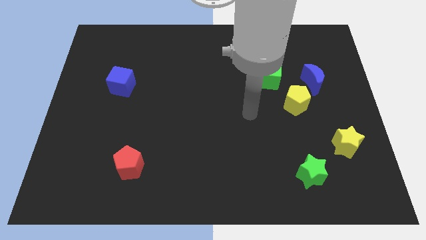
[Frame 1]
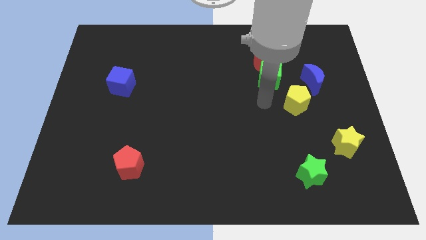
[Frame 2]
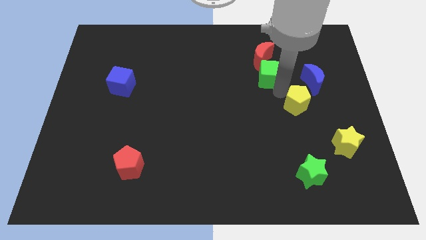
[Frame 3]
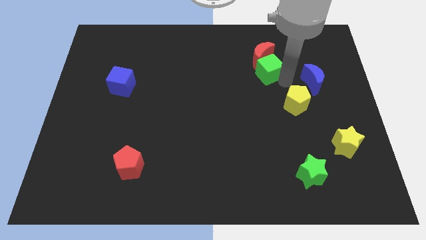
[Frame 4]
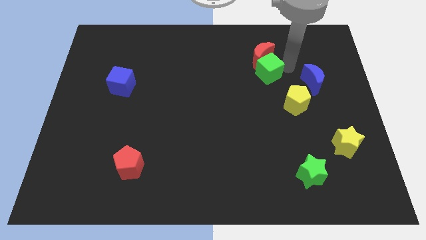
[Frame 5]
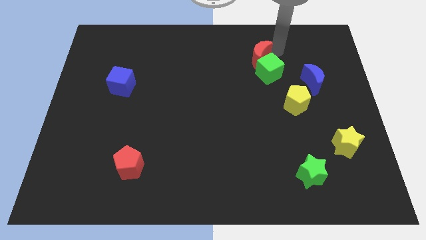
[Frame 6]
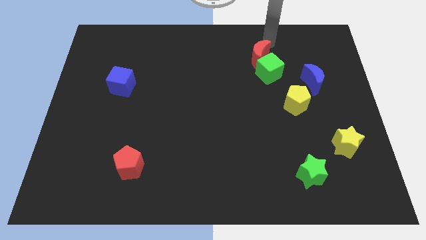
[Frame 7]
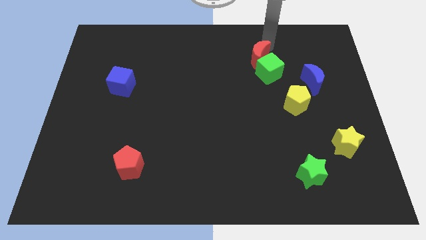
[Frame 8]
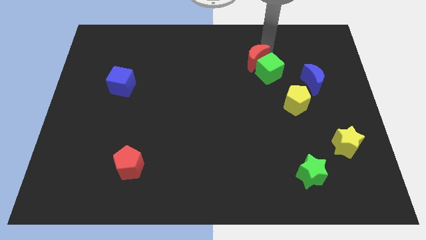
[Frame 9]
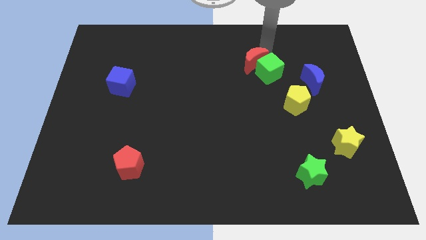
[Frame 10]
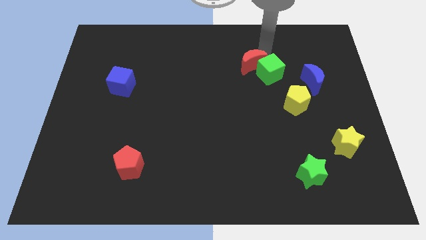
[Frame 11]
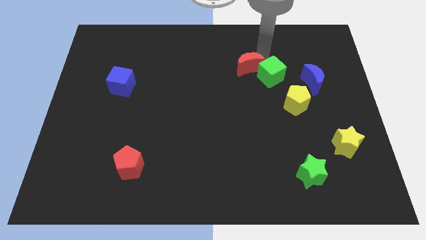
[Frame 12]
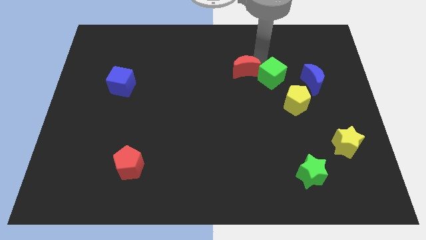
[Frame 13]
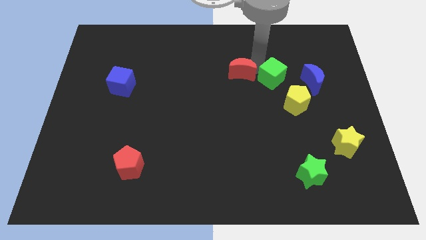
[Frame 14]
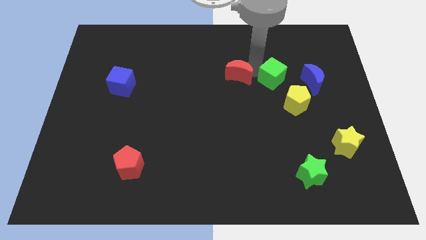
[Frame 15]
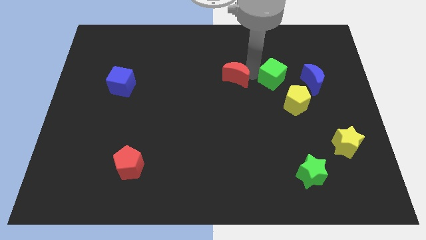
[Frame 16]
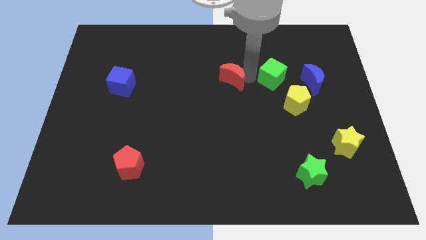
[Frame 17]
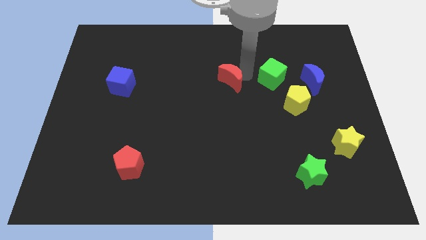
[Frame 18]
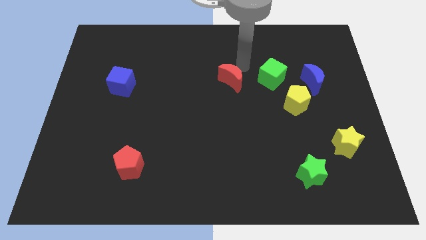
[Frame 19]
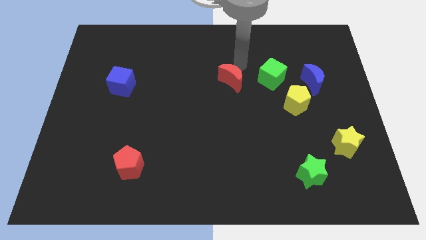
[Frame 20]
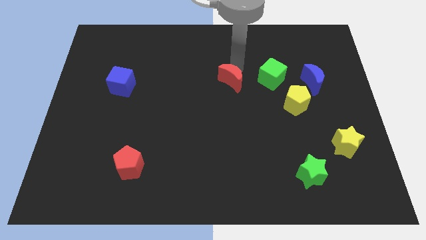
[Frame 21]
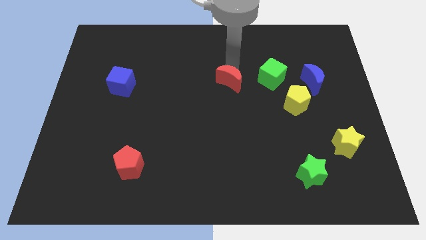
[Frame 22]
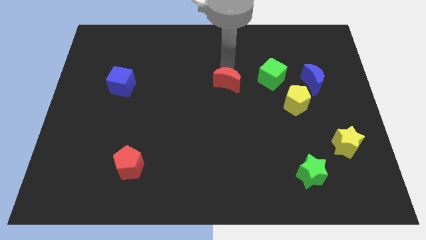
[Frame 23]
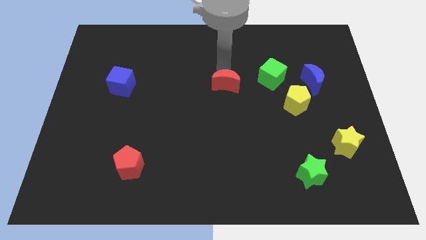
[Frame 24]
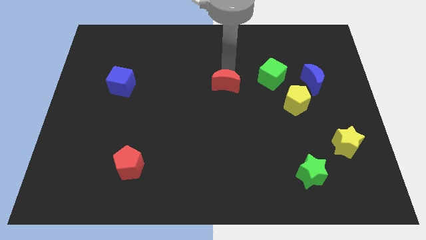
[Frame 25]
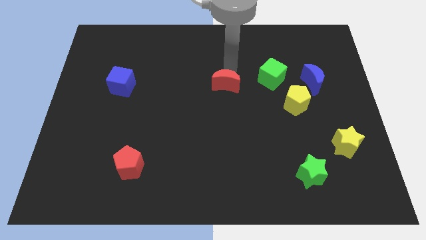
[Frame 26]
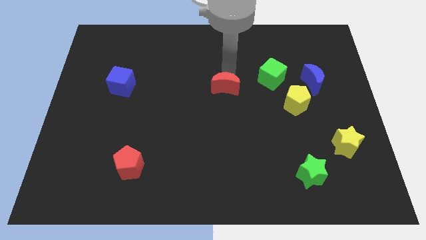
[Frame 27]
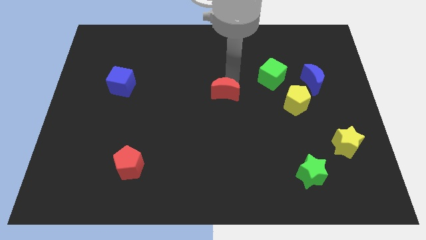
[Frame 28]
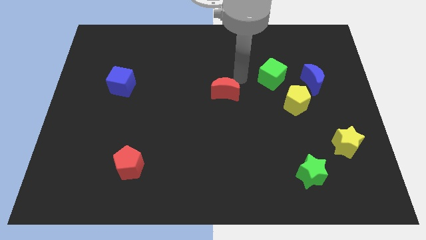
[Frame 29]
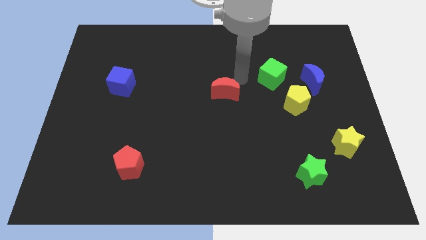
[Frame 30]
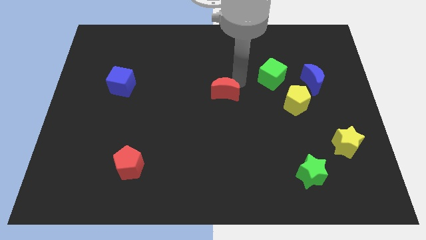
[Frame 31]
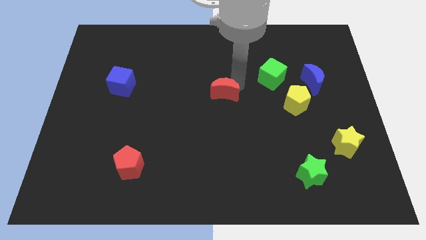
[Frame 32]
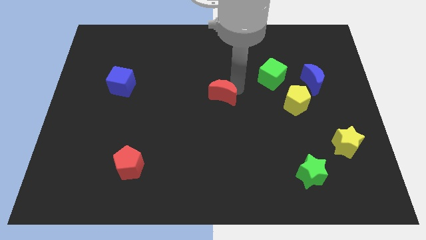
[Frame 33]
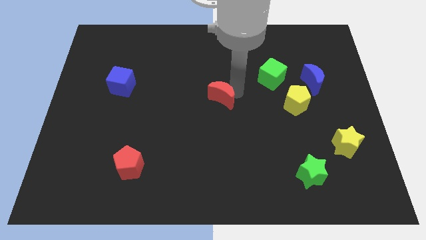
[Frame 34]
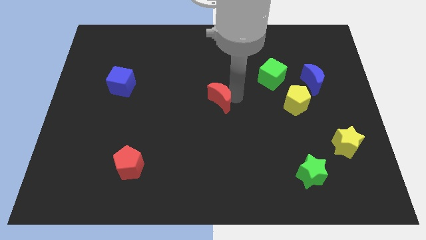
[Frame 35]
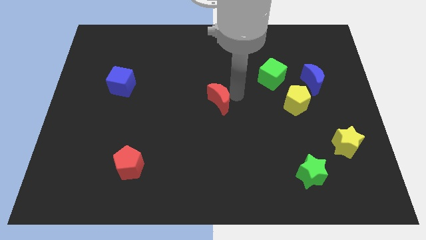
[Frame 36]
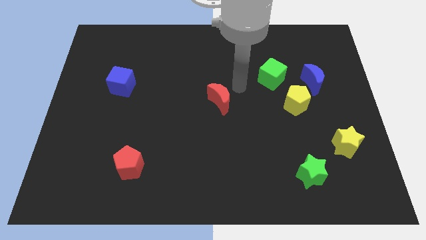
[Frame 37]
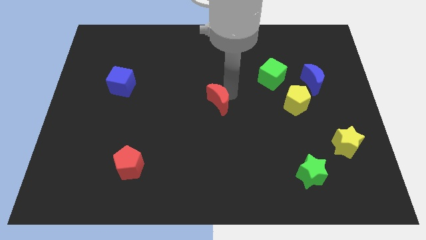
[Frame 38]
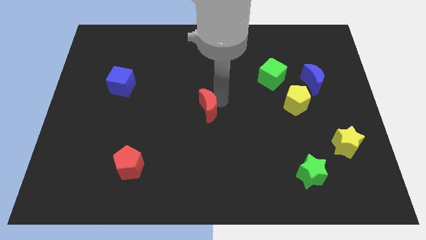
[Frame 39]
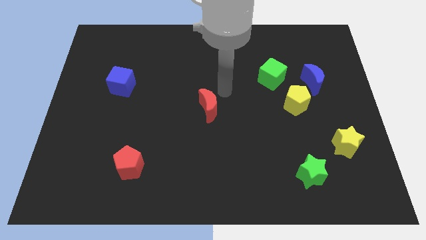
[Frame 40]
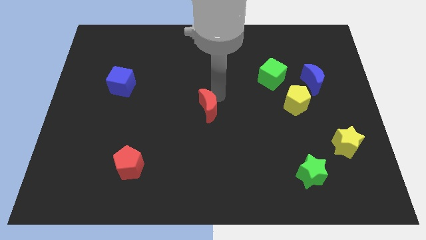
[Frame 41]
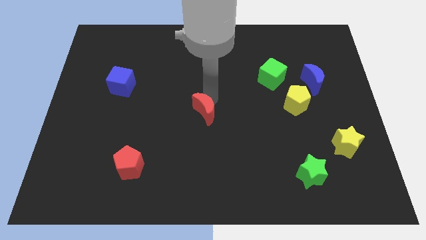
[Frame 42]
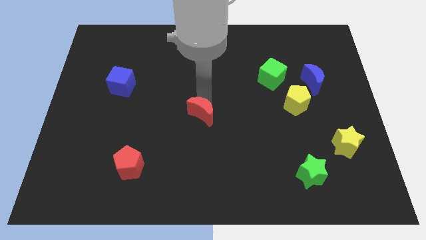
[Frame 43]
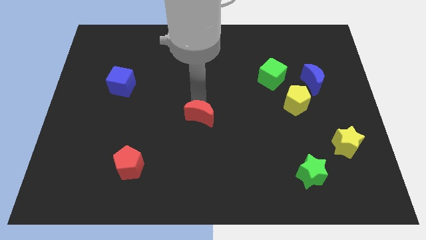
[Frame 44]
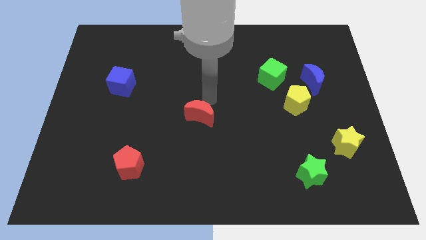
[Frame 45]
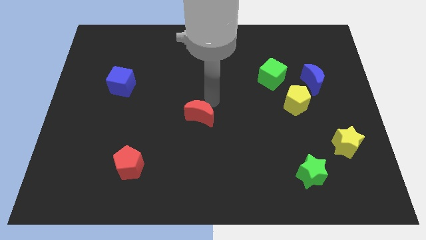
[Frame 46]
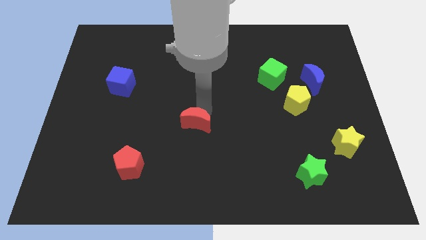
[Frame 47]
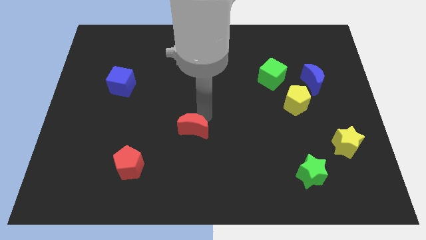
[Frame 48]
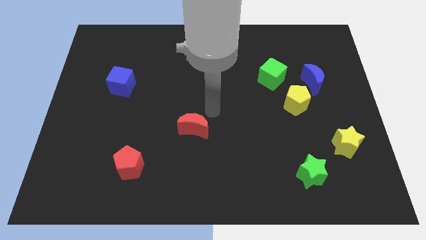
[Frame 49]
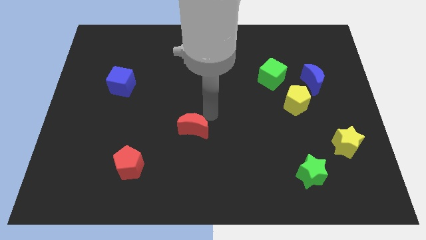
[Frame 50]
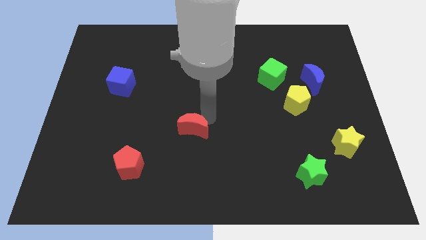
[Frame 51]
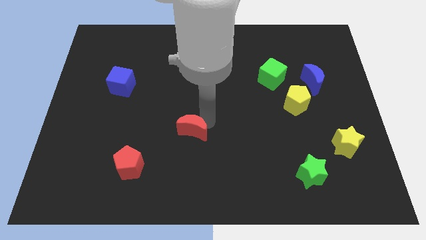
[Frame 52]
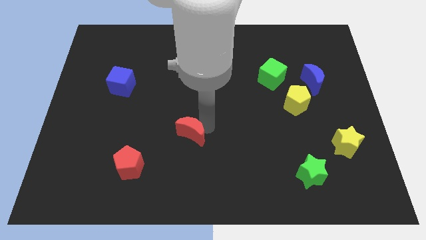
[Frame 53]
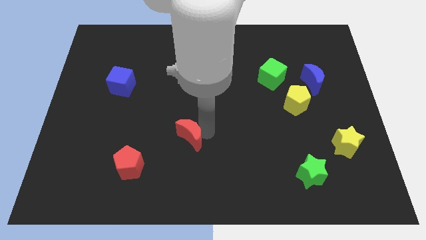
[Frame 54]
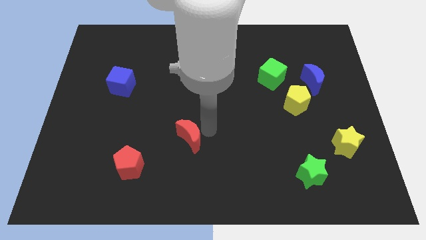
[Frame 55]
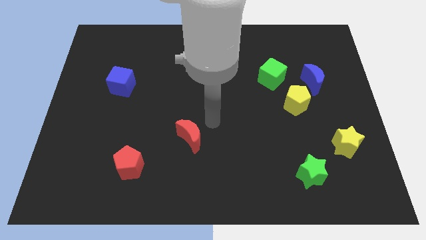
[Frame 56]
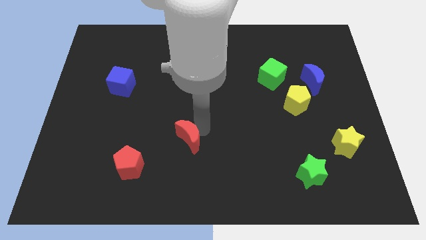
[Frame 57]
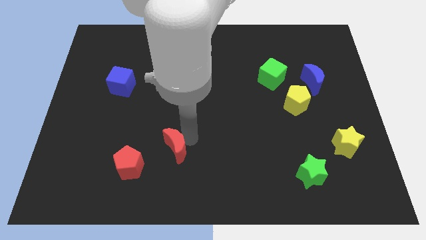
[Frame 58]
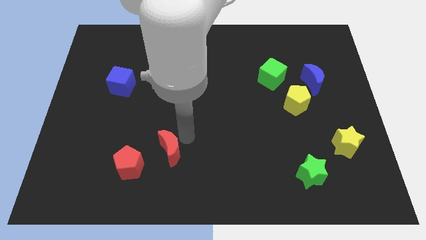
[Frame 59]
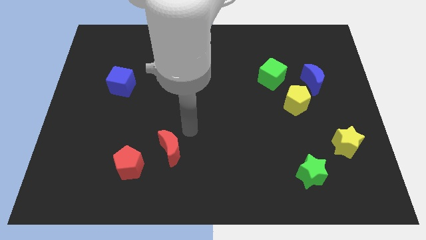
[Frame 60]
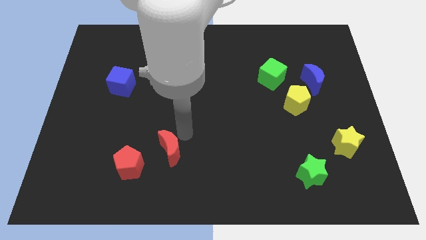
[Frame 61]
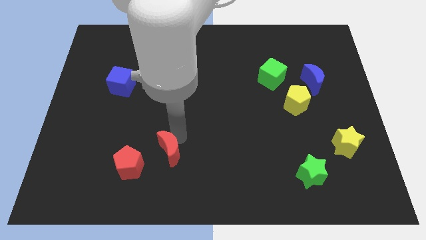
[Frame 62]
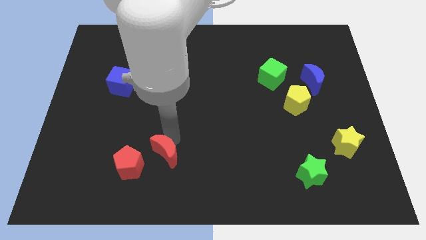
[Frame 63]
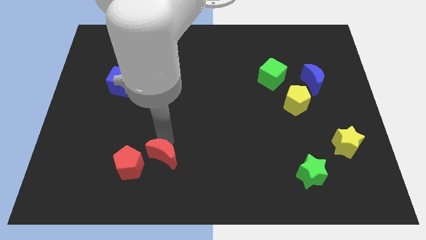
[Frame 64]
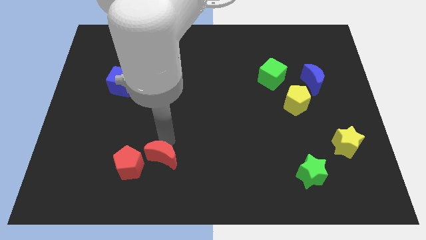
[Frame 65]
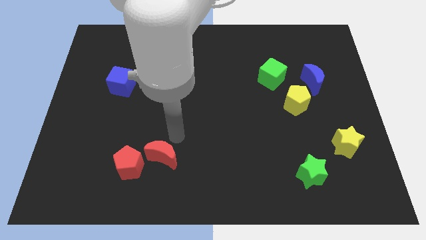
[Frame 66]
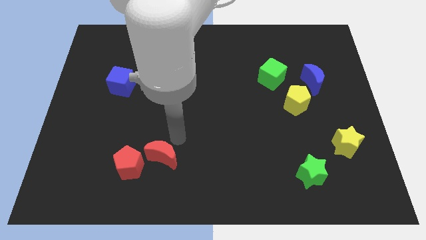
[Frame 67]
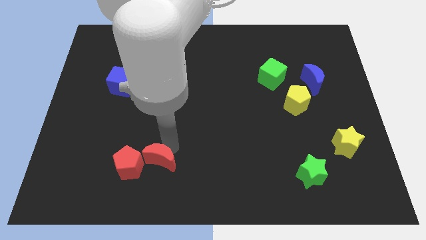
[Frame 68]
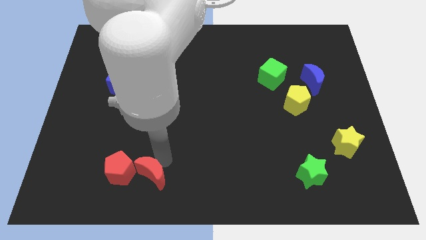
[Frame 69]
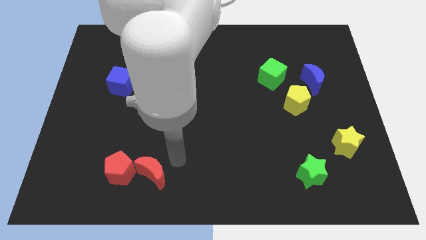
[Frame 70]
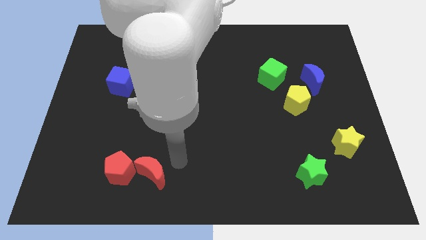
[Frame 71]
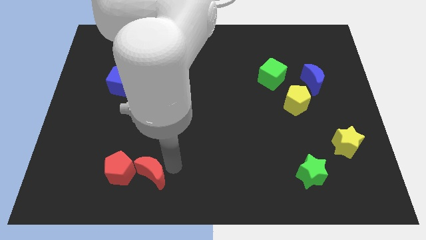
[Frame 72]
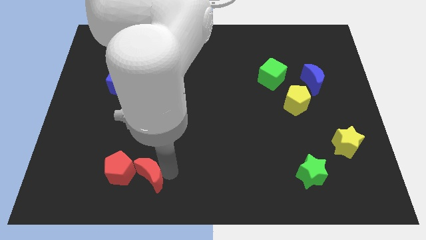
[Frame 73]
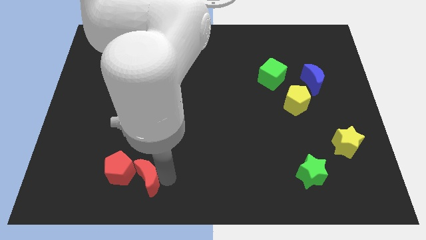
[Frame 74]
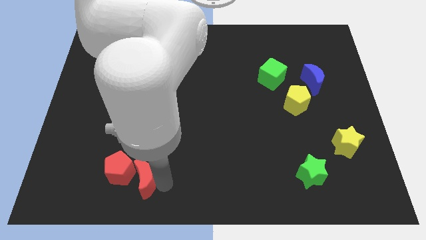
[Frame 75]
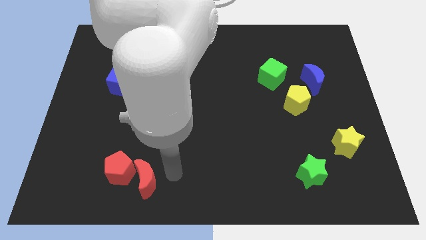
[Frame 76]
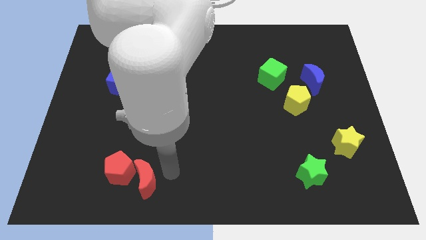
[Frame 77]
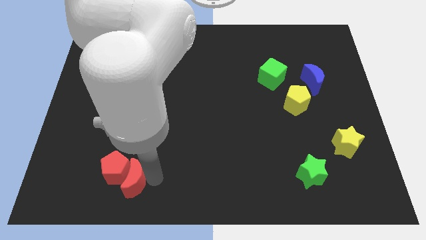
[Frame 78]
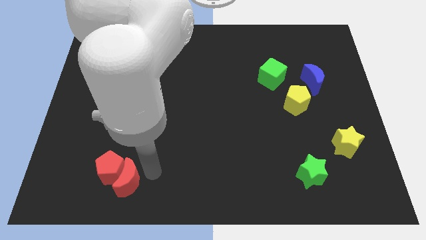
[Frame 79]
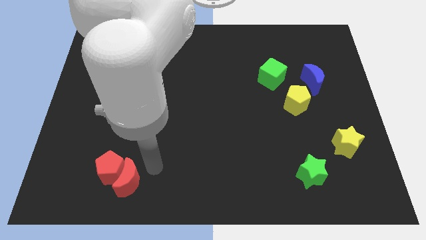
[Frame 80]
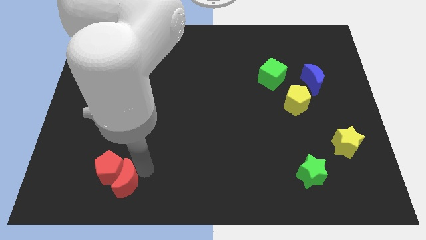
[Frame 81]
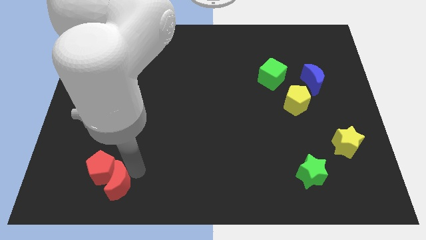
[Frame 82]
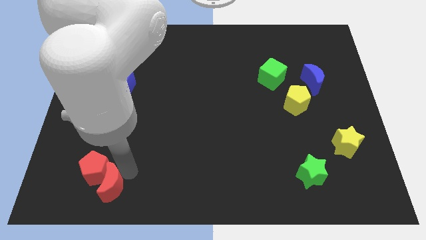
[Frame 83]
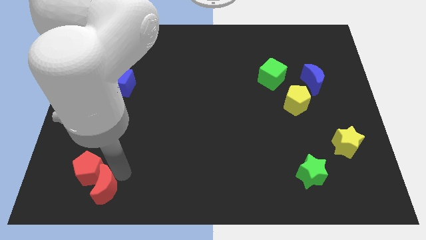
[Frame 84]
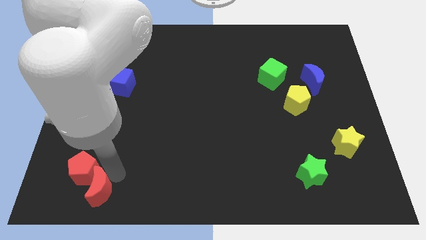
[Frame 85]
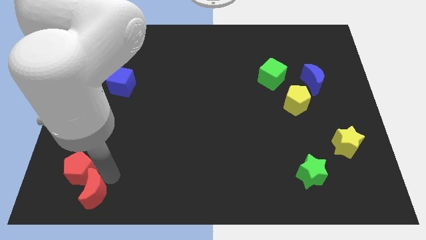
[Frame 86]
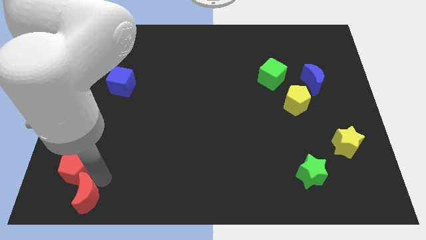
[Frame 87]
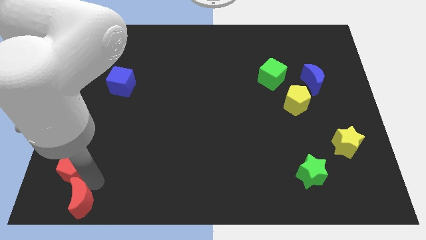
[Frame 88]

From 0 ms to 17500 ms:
slide the red moon to the bottom left
